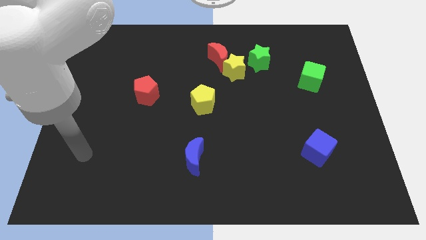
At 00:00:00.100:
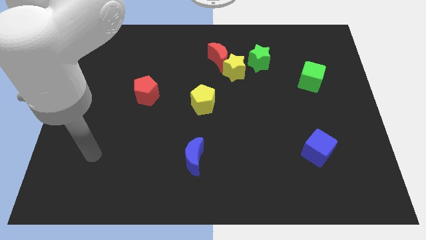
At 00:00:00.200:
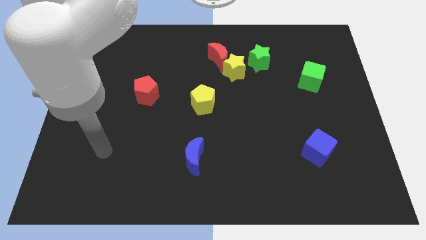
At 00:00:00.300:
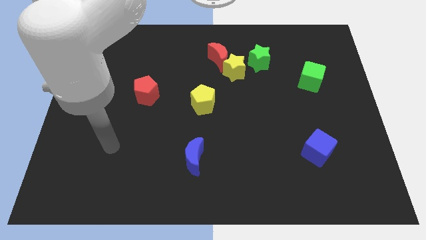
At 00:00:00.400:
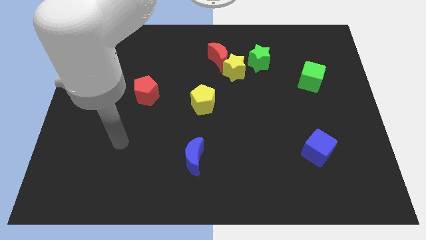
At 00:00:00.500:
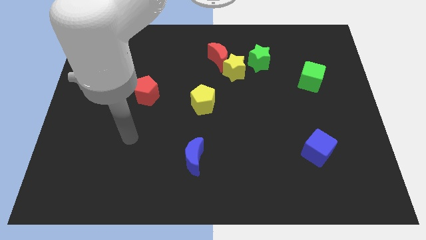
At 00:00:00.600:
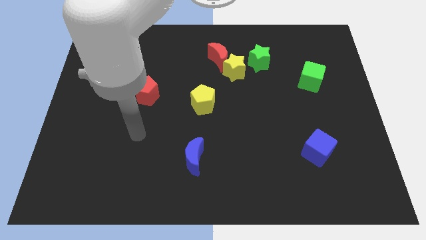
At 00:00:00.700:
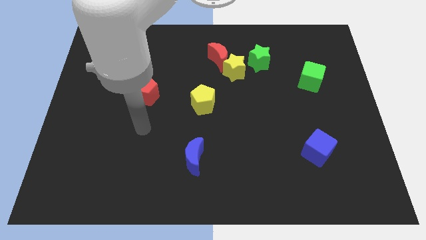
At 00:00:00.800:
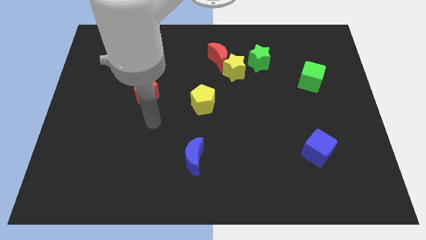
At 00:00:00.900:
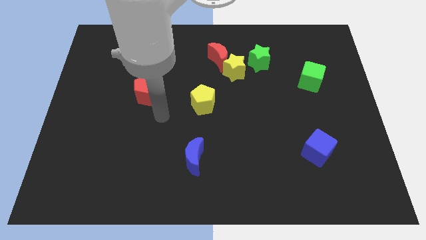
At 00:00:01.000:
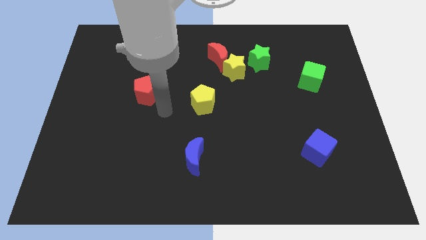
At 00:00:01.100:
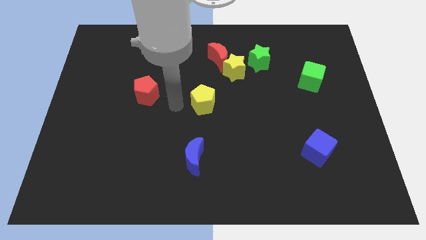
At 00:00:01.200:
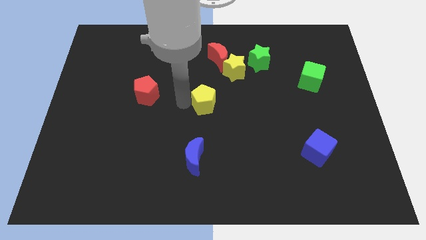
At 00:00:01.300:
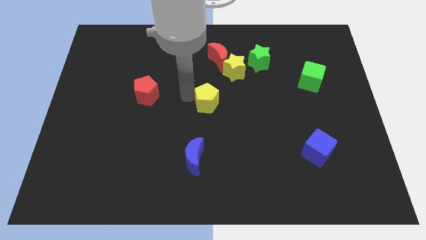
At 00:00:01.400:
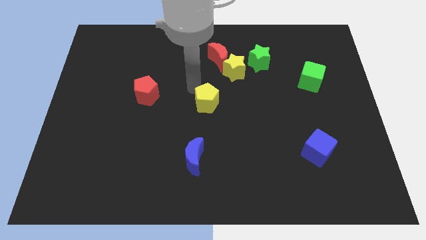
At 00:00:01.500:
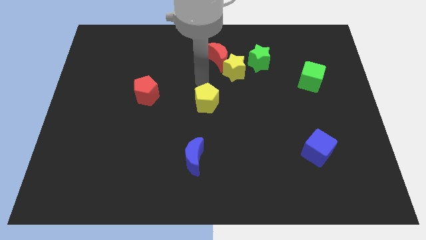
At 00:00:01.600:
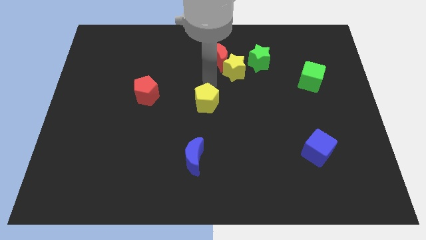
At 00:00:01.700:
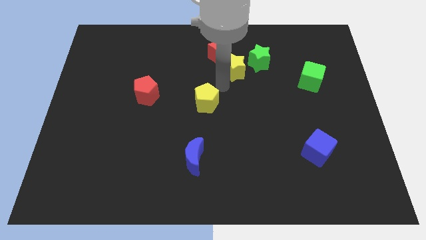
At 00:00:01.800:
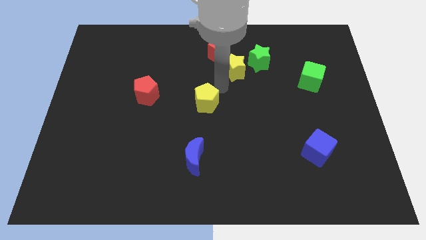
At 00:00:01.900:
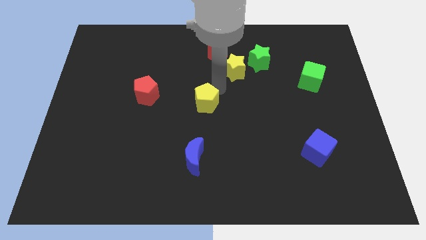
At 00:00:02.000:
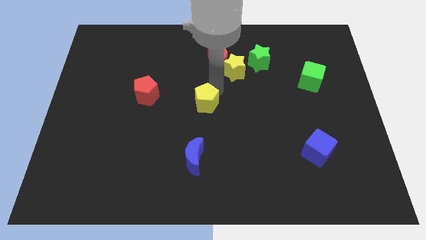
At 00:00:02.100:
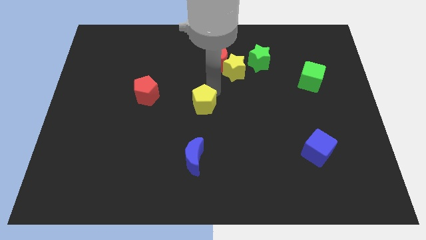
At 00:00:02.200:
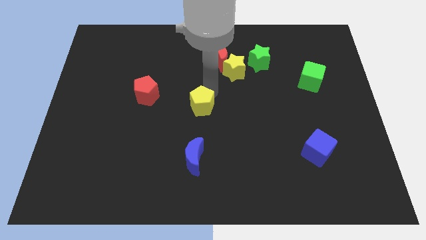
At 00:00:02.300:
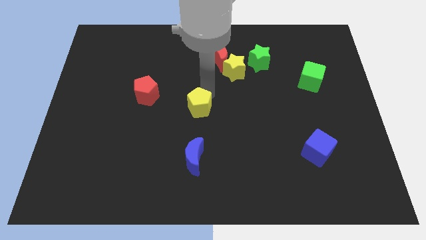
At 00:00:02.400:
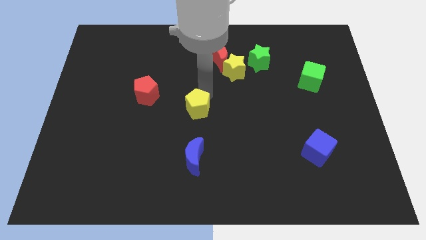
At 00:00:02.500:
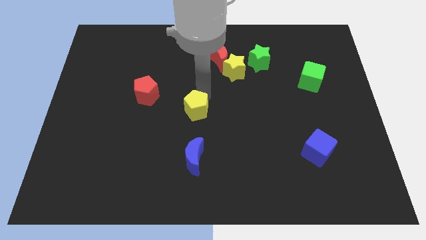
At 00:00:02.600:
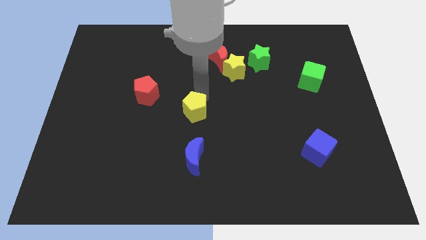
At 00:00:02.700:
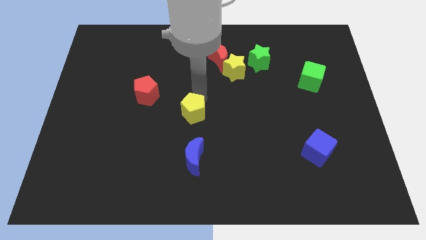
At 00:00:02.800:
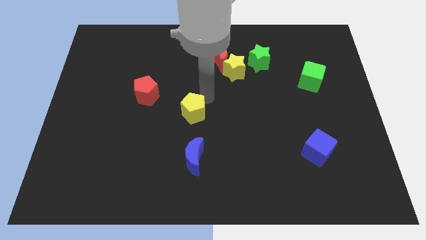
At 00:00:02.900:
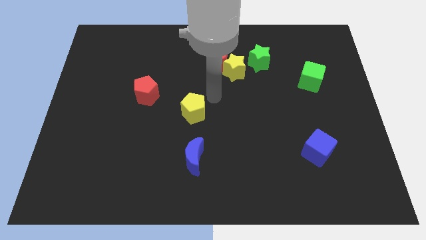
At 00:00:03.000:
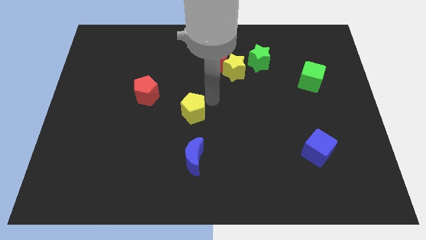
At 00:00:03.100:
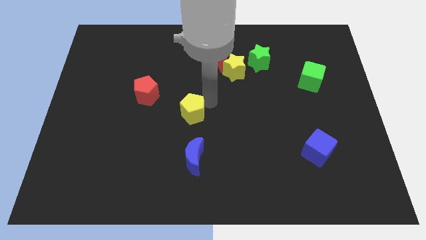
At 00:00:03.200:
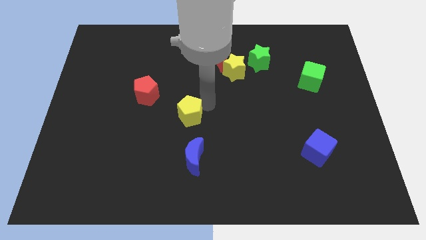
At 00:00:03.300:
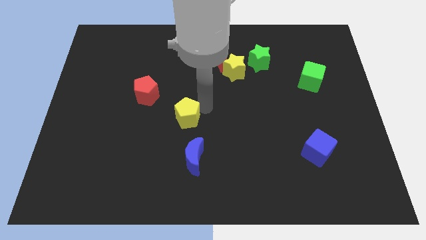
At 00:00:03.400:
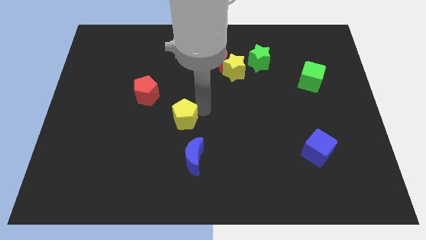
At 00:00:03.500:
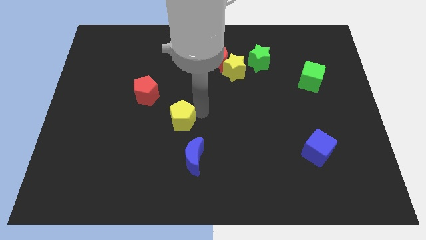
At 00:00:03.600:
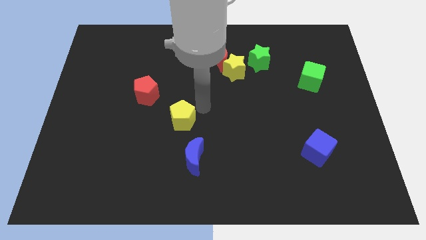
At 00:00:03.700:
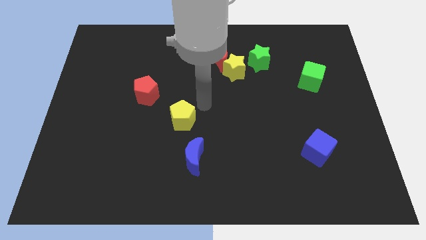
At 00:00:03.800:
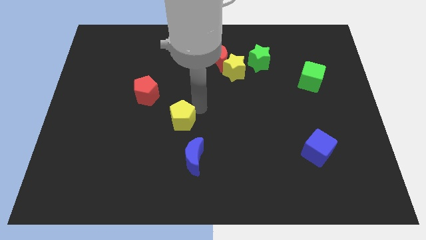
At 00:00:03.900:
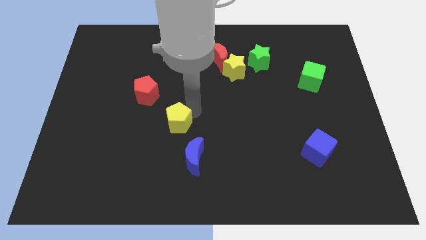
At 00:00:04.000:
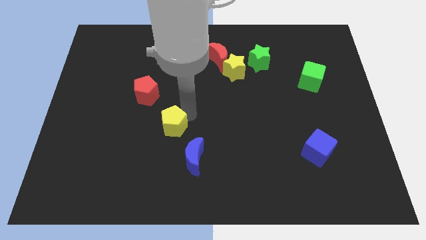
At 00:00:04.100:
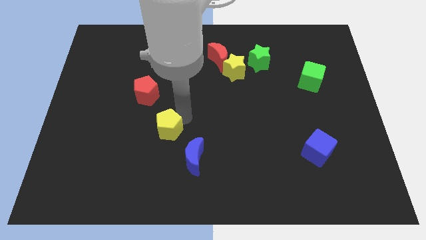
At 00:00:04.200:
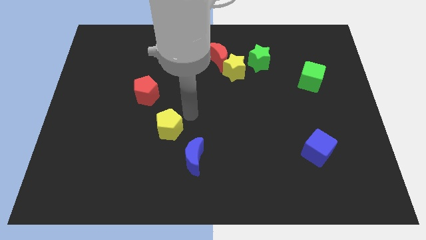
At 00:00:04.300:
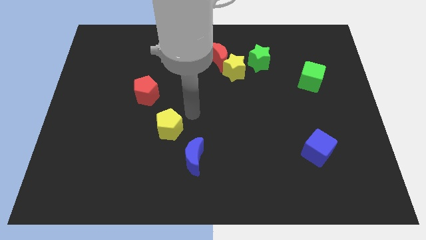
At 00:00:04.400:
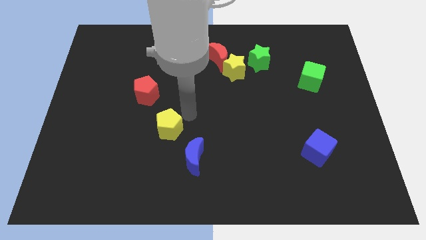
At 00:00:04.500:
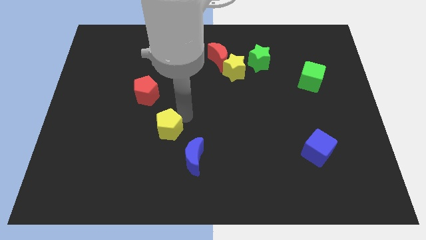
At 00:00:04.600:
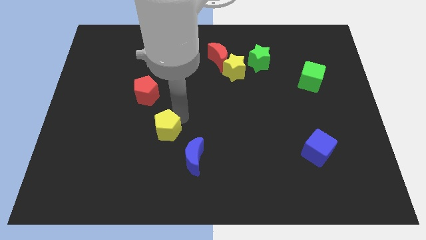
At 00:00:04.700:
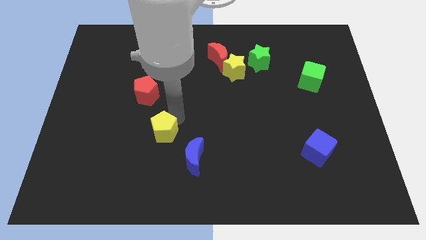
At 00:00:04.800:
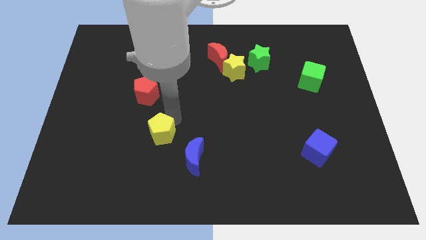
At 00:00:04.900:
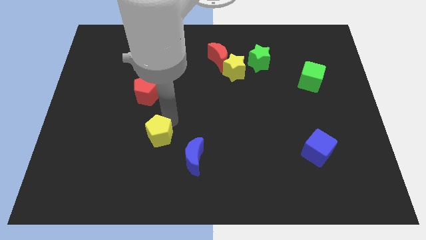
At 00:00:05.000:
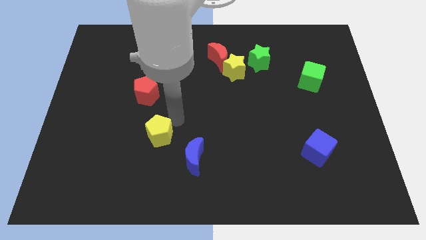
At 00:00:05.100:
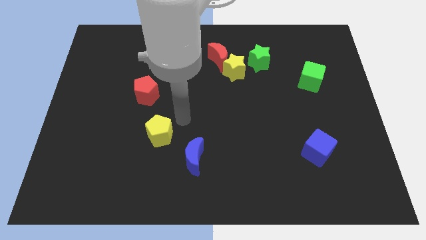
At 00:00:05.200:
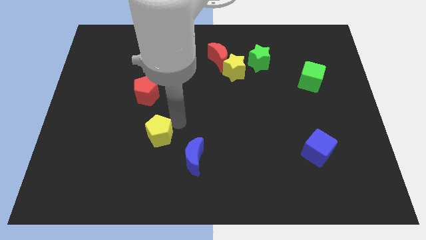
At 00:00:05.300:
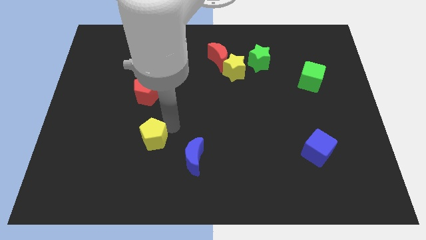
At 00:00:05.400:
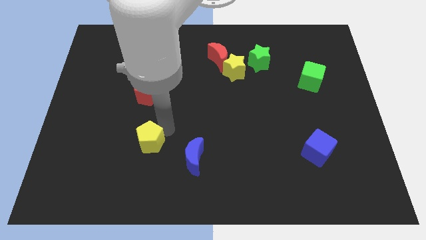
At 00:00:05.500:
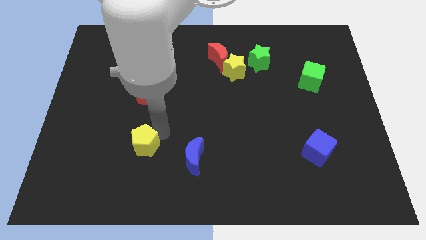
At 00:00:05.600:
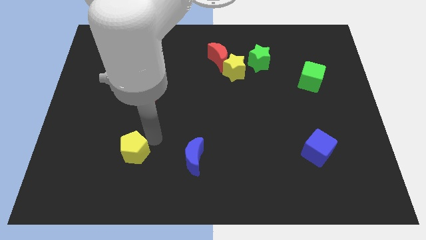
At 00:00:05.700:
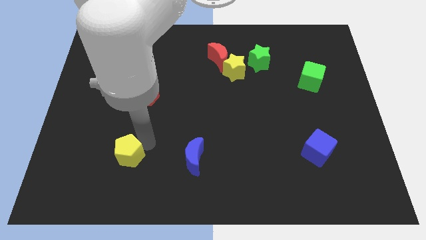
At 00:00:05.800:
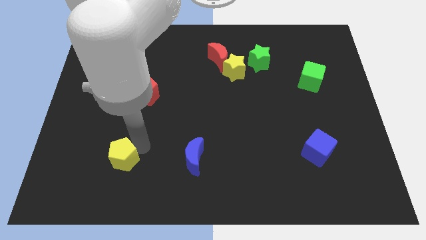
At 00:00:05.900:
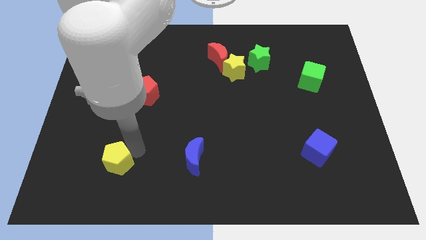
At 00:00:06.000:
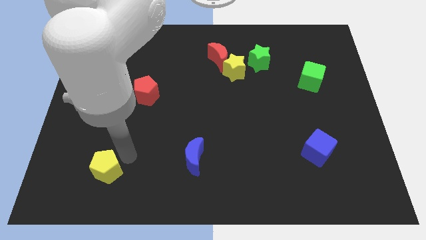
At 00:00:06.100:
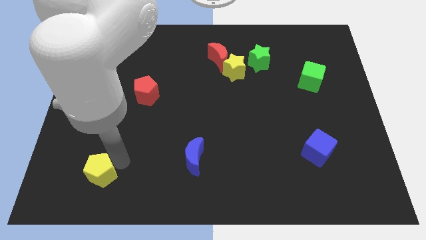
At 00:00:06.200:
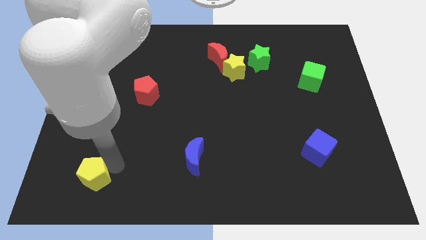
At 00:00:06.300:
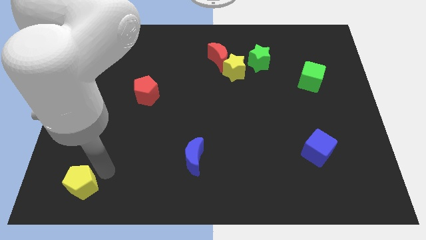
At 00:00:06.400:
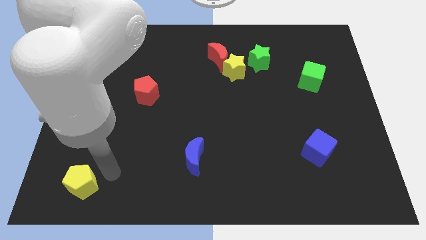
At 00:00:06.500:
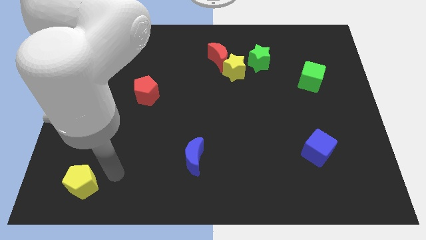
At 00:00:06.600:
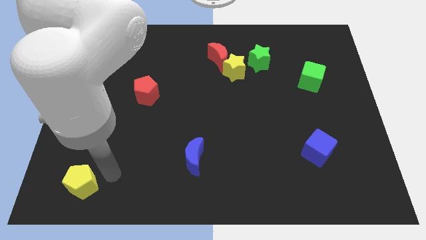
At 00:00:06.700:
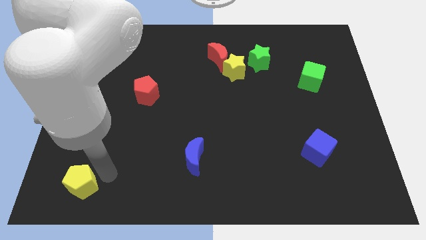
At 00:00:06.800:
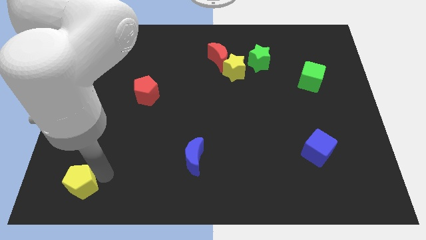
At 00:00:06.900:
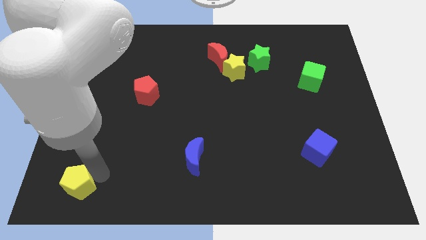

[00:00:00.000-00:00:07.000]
move the yellow pentagon to the lower left corner
